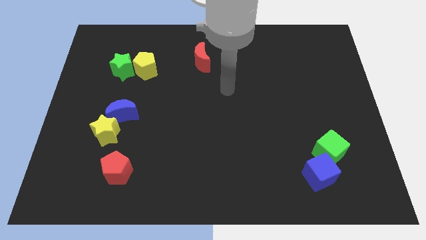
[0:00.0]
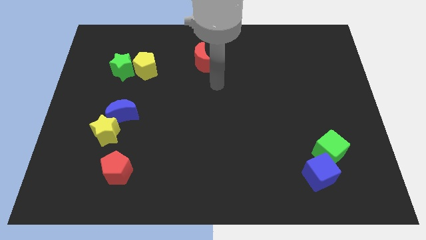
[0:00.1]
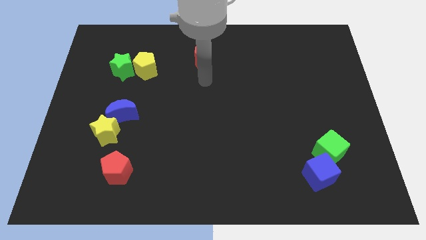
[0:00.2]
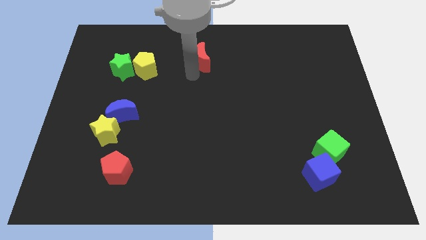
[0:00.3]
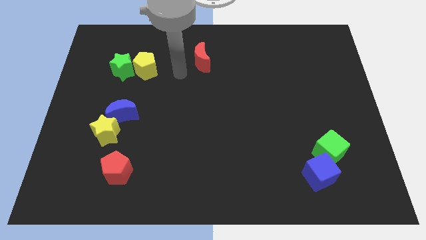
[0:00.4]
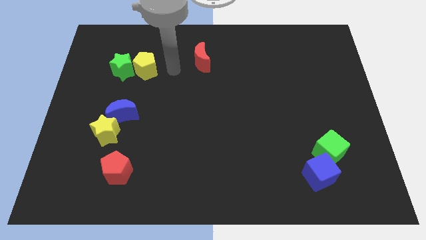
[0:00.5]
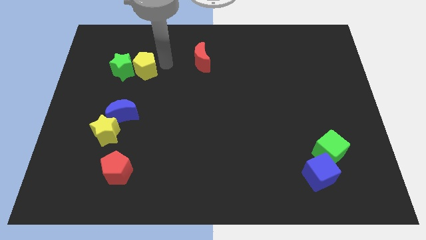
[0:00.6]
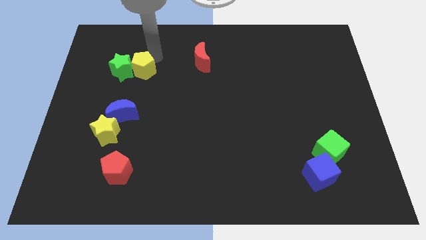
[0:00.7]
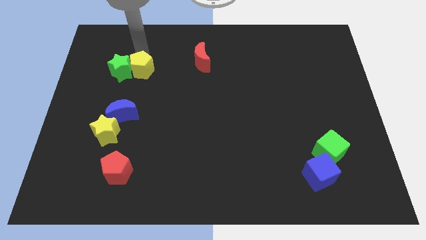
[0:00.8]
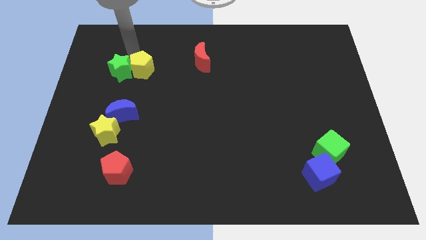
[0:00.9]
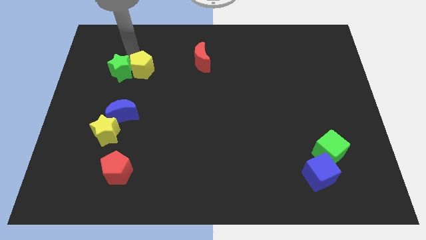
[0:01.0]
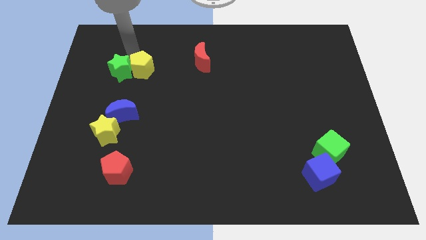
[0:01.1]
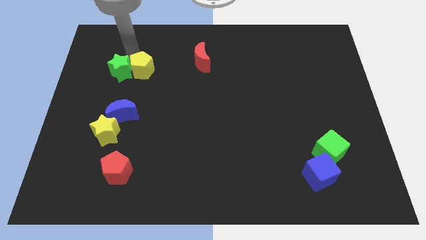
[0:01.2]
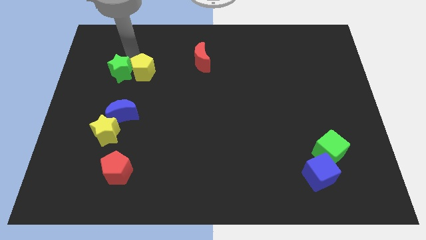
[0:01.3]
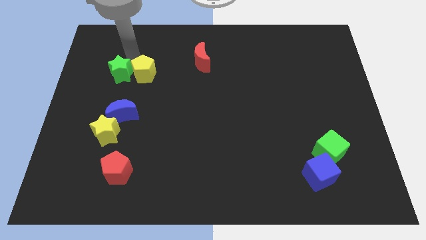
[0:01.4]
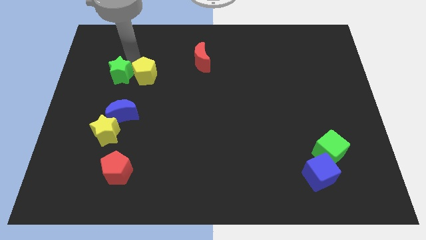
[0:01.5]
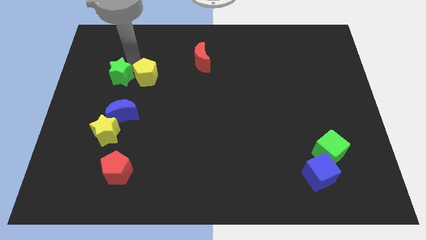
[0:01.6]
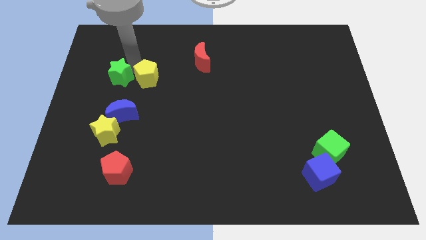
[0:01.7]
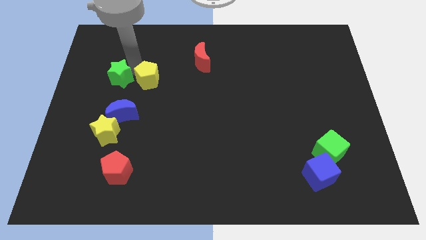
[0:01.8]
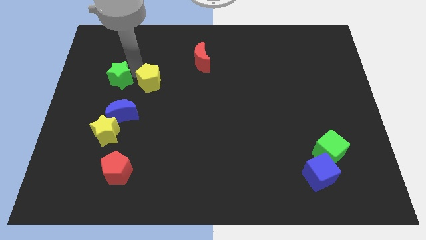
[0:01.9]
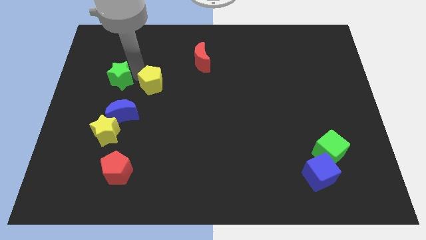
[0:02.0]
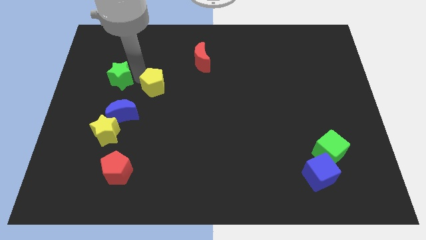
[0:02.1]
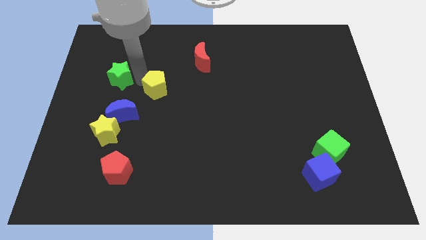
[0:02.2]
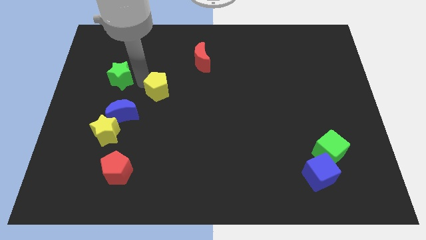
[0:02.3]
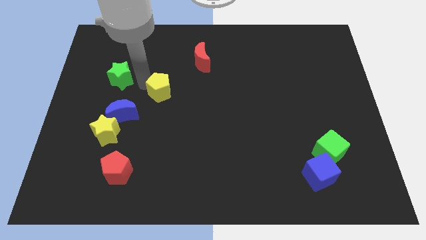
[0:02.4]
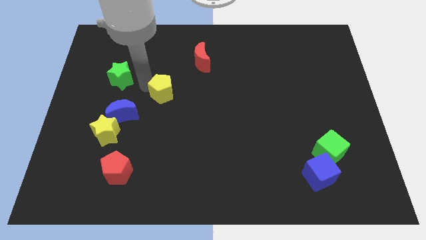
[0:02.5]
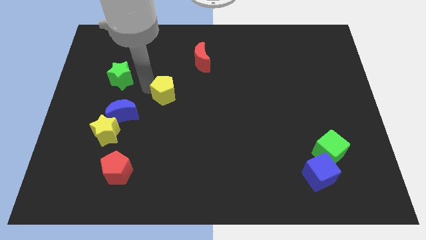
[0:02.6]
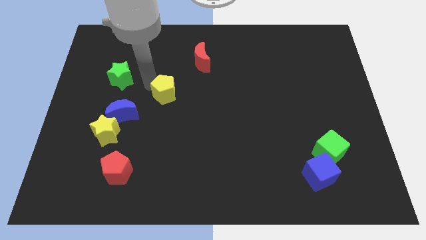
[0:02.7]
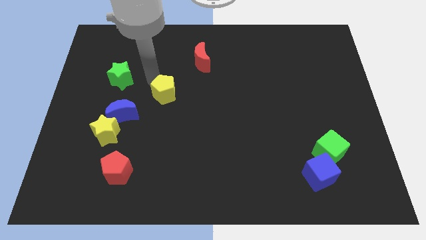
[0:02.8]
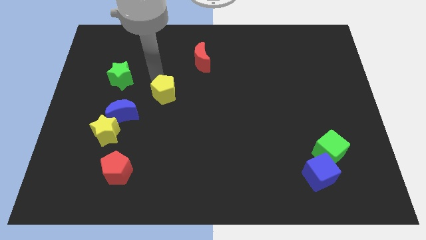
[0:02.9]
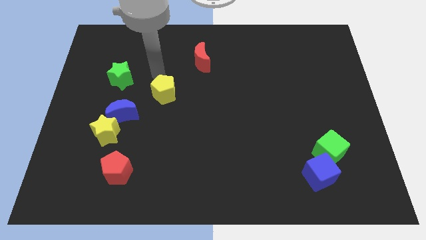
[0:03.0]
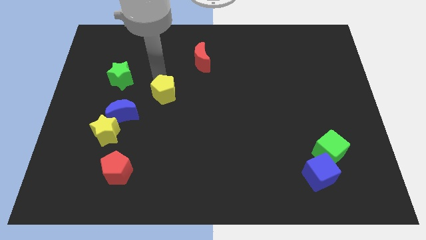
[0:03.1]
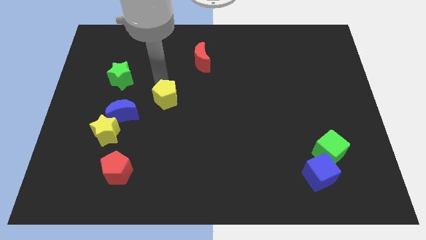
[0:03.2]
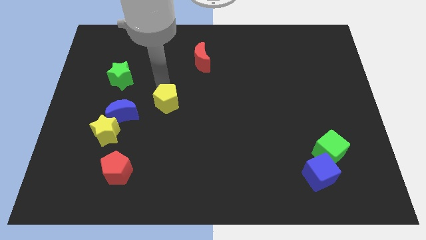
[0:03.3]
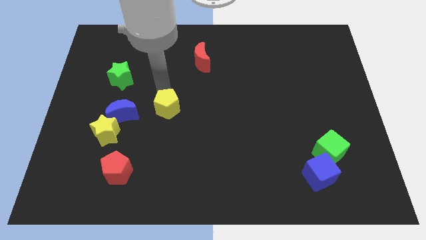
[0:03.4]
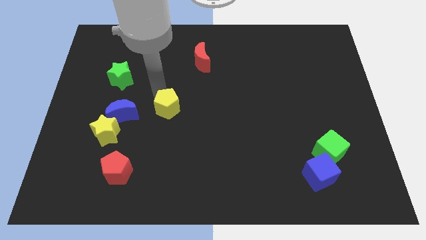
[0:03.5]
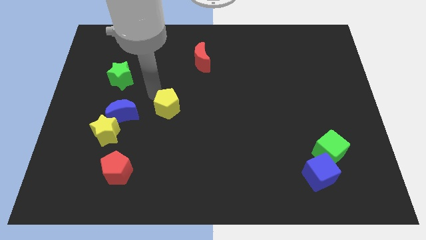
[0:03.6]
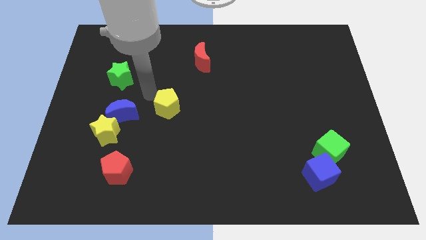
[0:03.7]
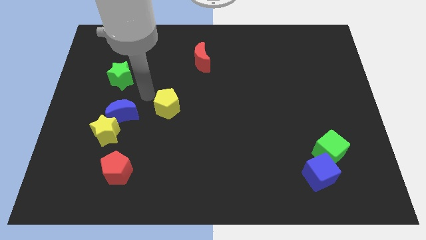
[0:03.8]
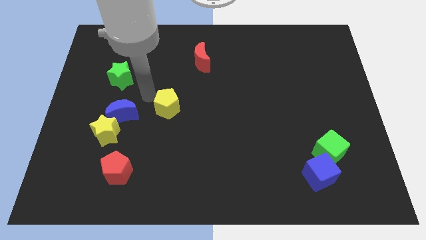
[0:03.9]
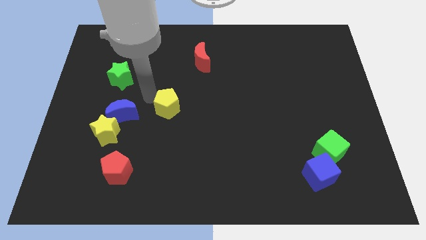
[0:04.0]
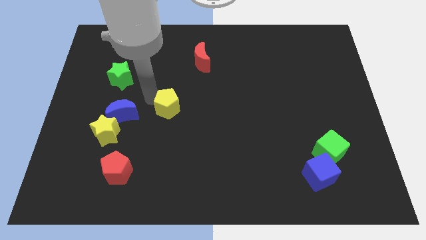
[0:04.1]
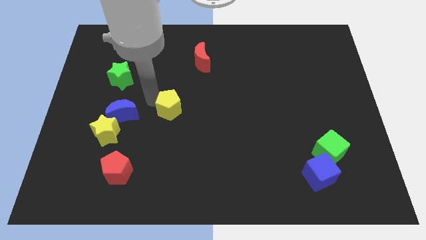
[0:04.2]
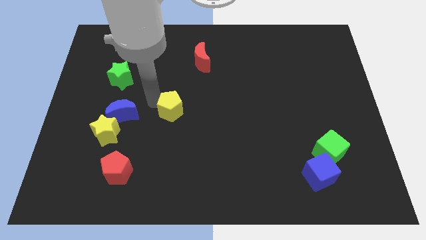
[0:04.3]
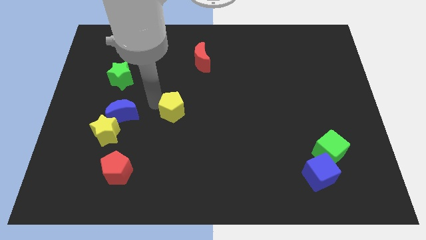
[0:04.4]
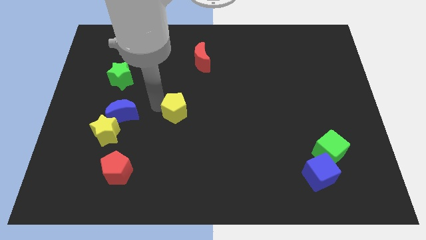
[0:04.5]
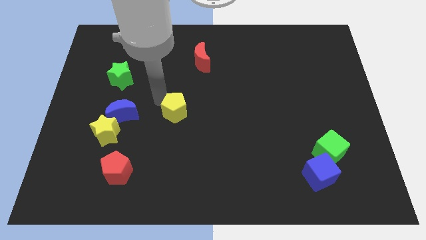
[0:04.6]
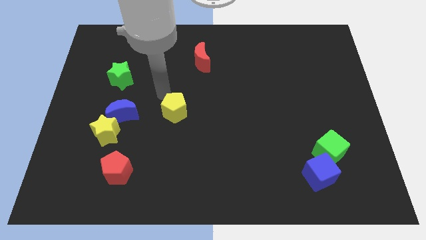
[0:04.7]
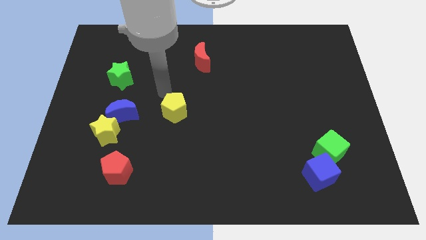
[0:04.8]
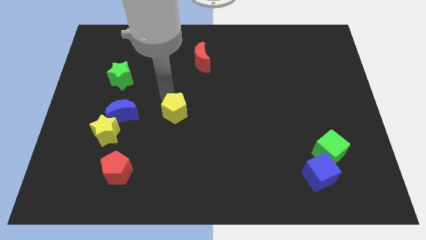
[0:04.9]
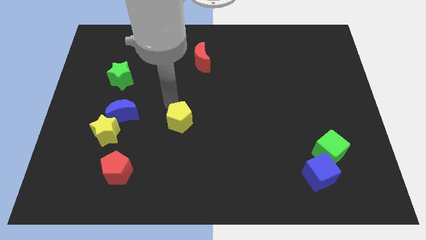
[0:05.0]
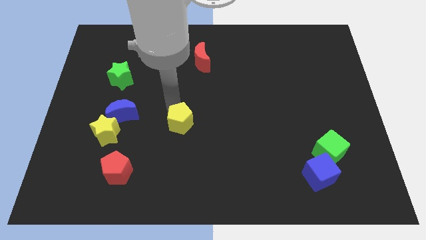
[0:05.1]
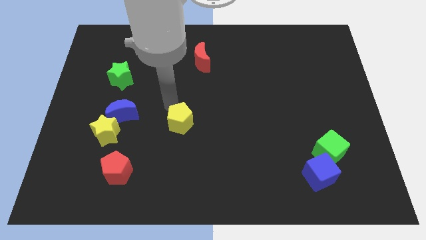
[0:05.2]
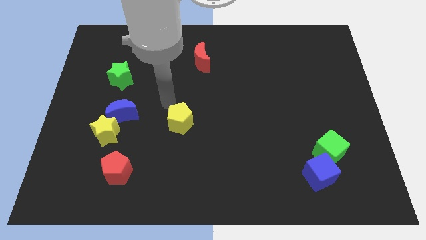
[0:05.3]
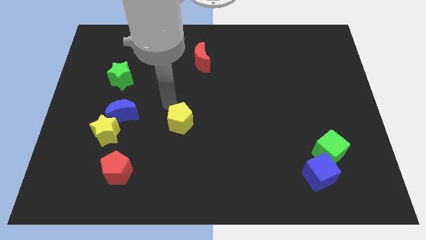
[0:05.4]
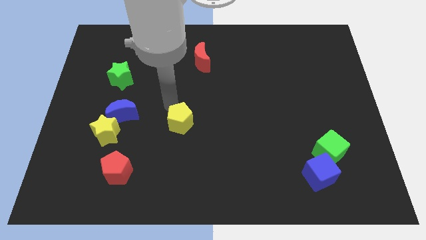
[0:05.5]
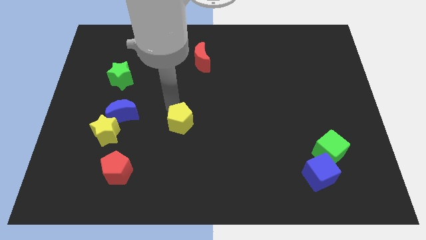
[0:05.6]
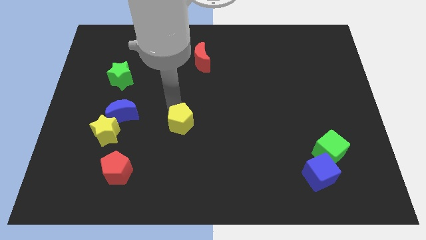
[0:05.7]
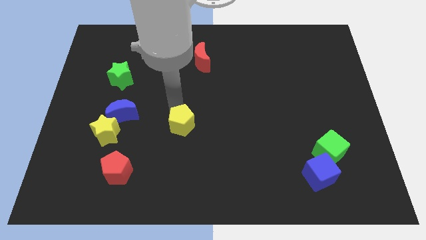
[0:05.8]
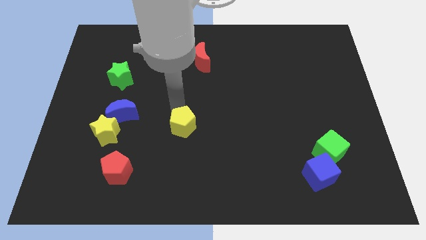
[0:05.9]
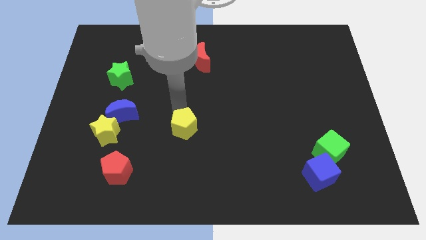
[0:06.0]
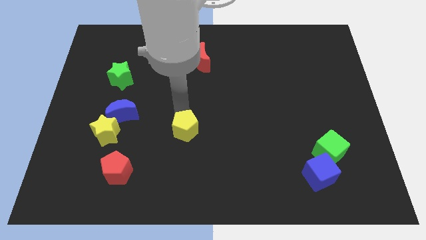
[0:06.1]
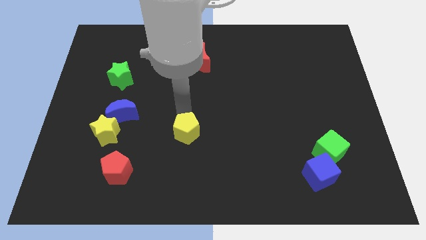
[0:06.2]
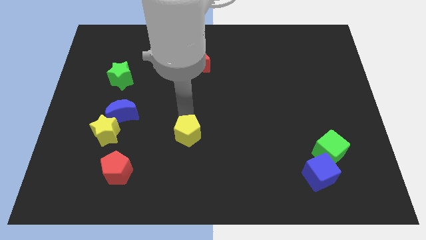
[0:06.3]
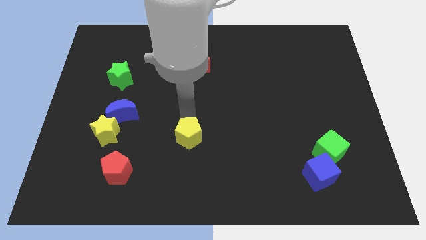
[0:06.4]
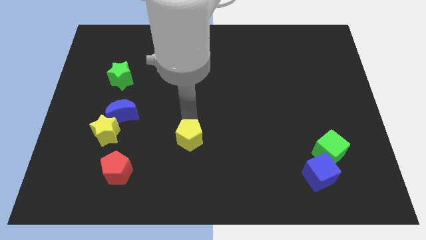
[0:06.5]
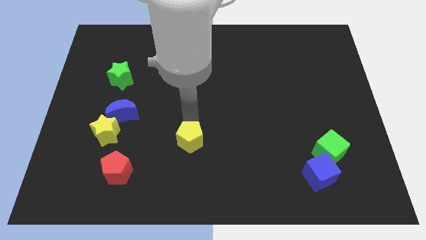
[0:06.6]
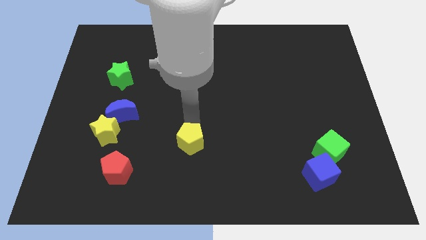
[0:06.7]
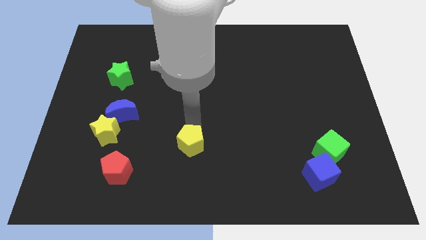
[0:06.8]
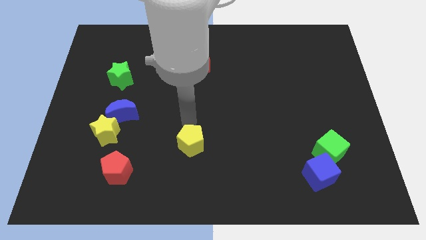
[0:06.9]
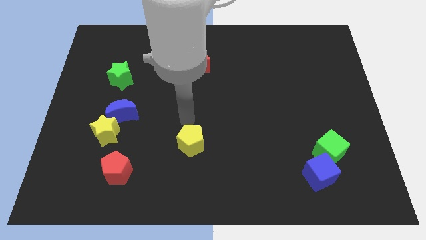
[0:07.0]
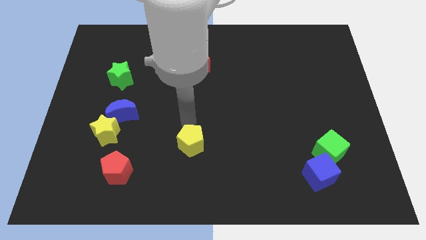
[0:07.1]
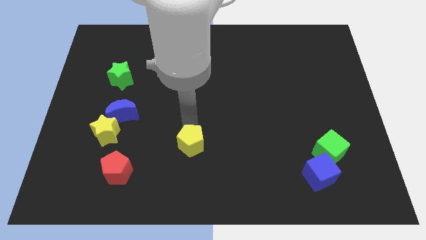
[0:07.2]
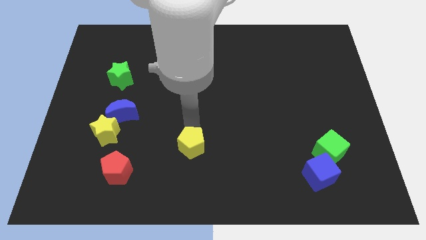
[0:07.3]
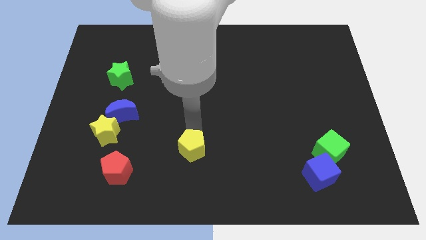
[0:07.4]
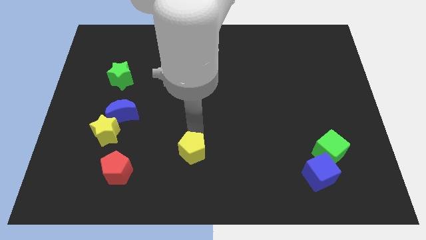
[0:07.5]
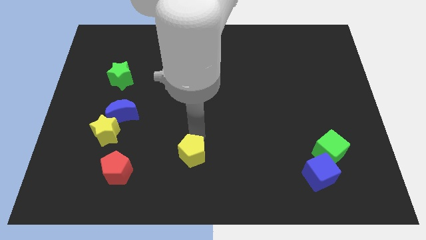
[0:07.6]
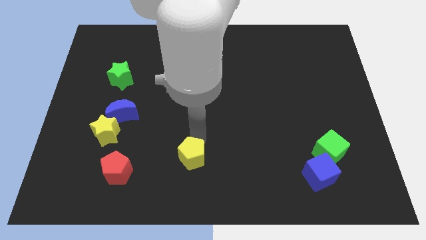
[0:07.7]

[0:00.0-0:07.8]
put the yellow pentagon to the bottom side
